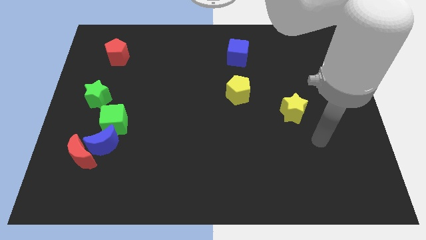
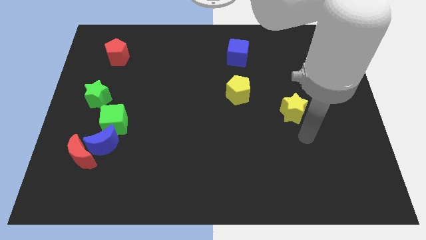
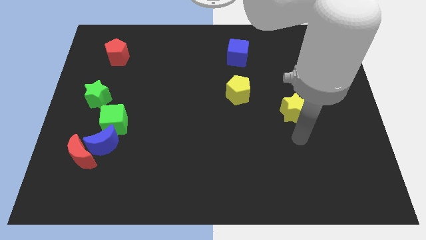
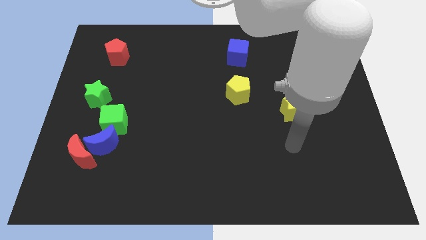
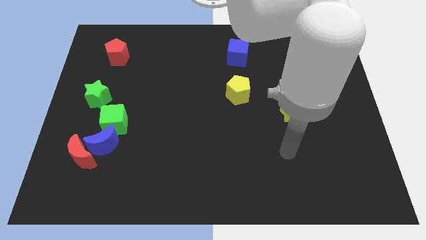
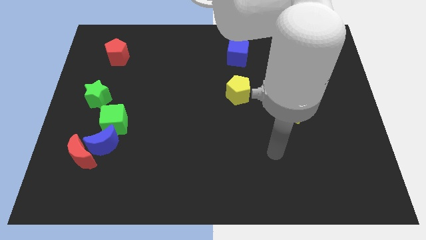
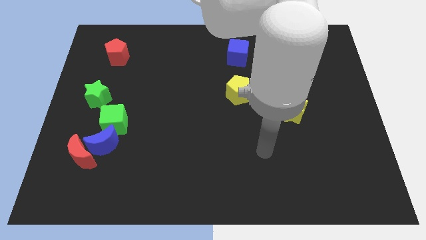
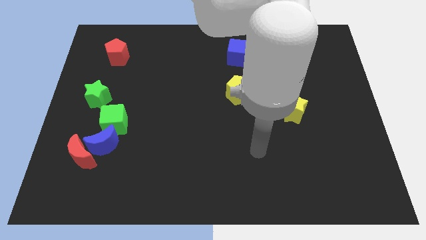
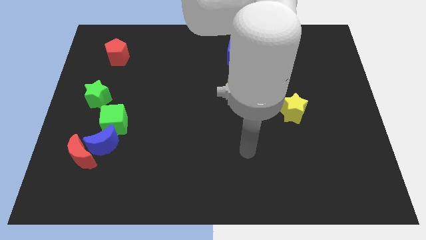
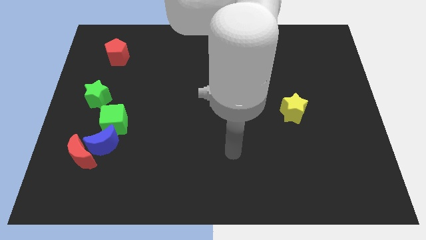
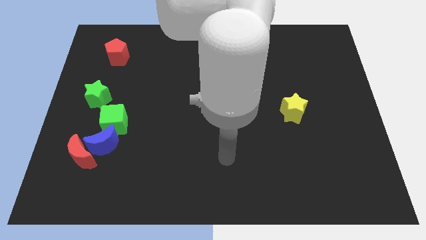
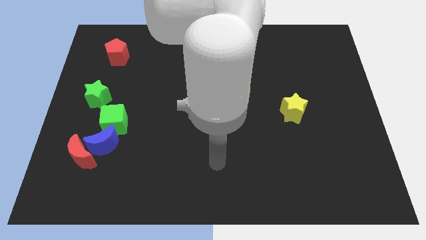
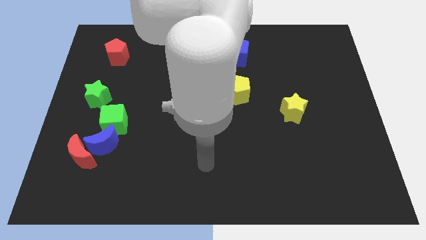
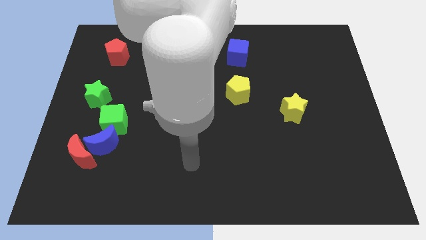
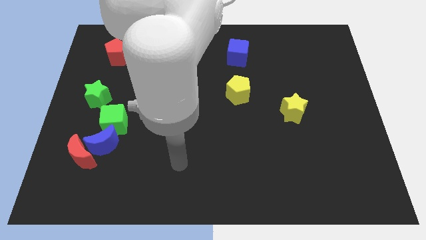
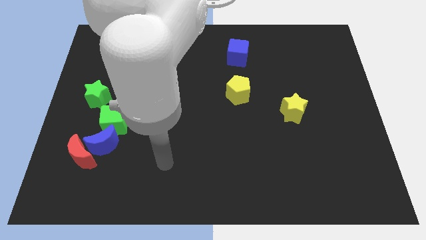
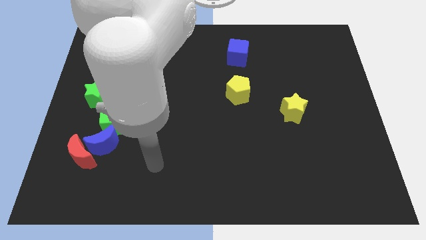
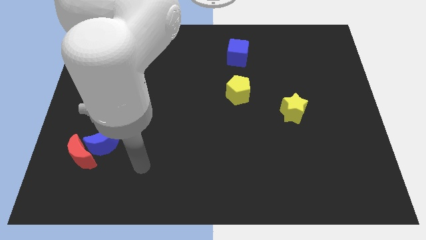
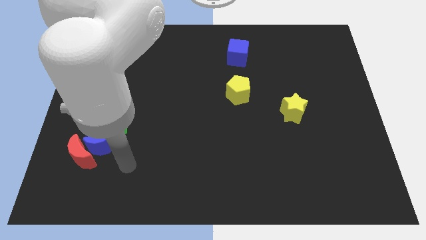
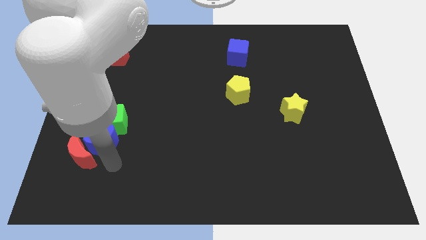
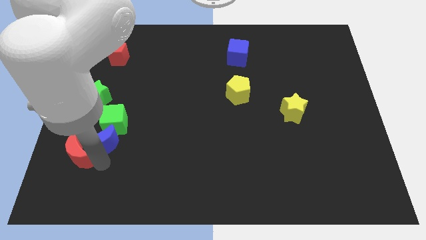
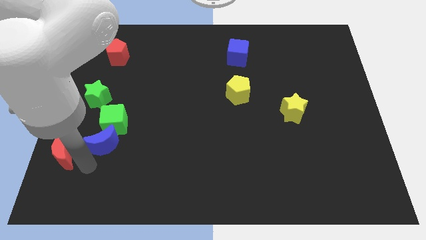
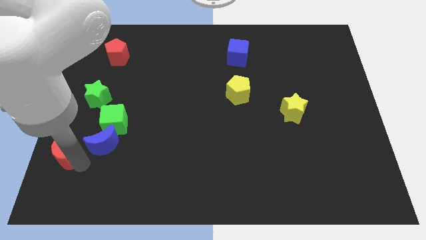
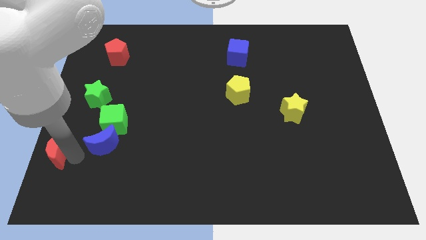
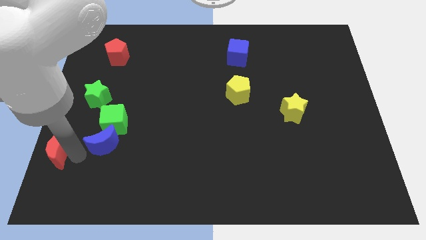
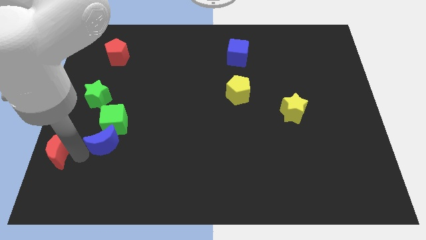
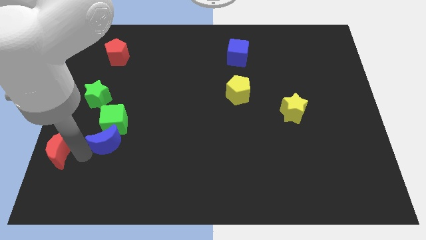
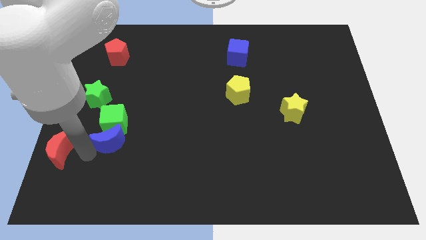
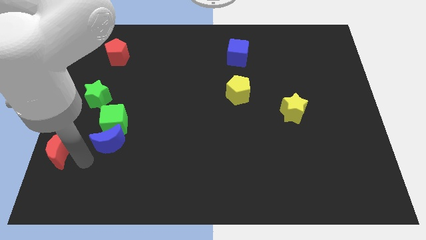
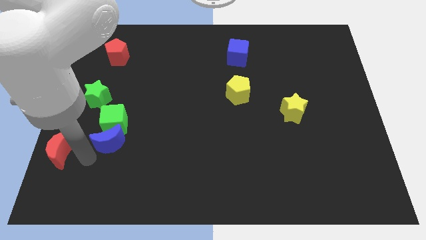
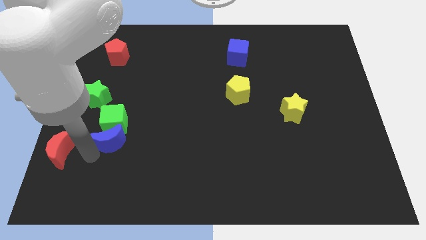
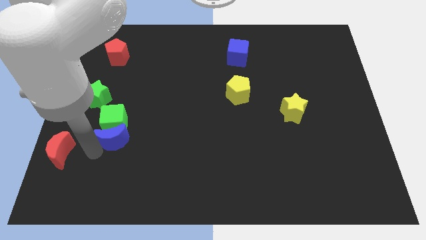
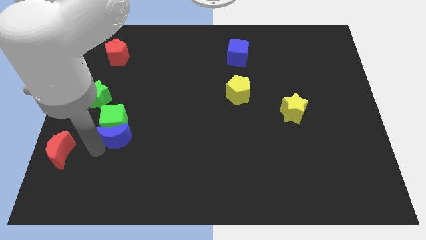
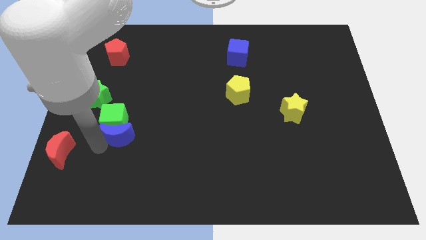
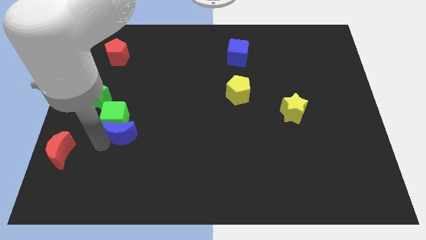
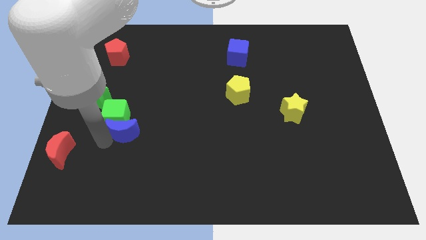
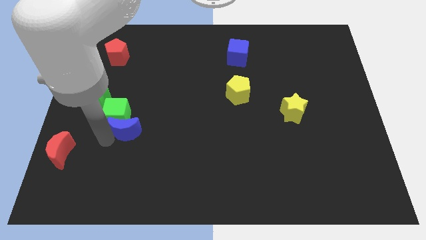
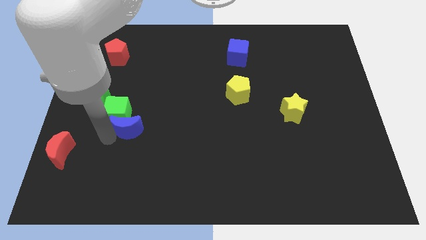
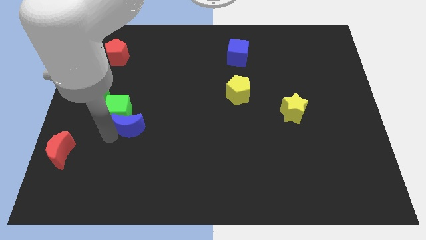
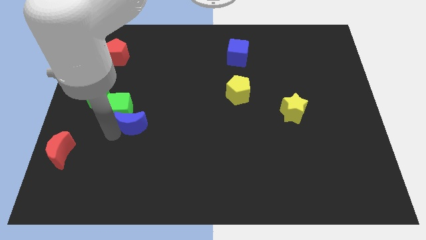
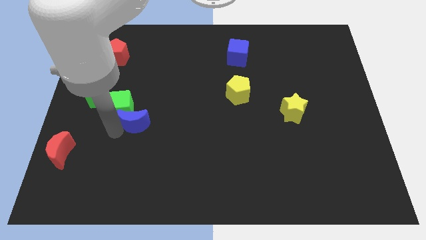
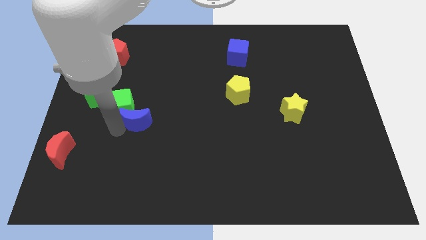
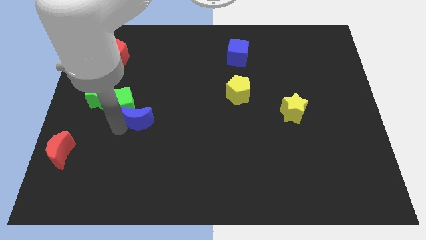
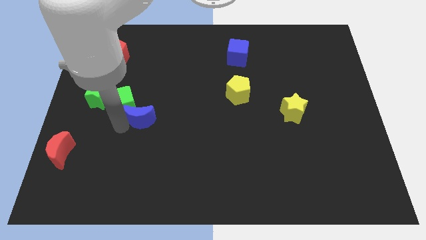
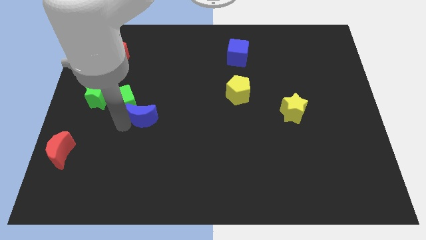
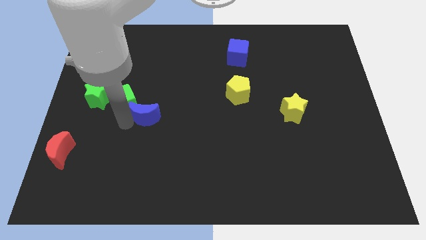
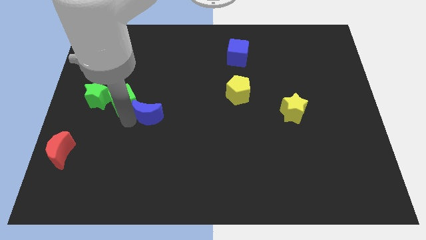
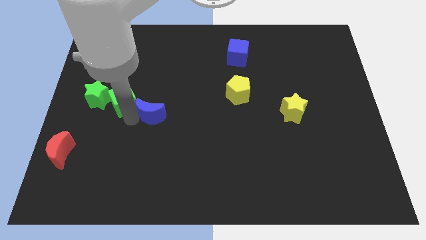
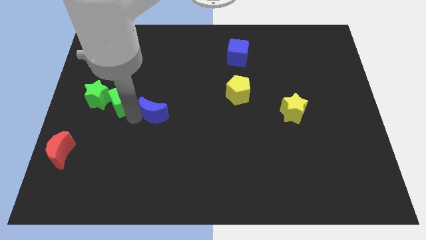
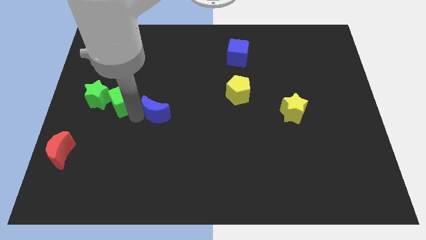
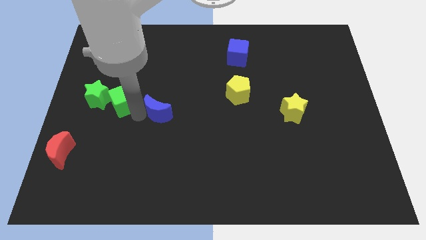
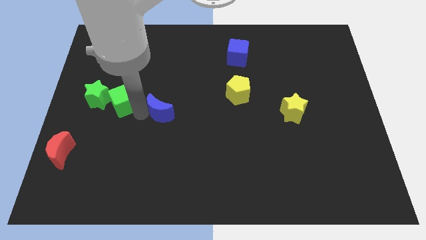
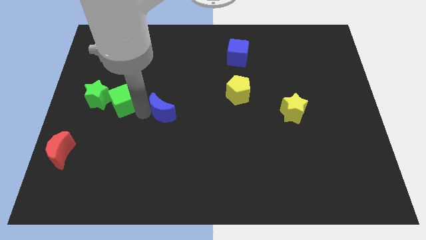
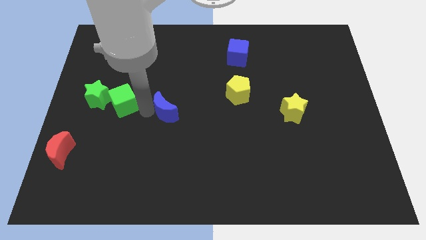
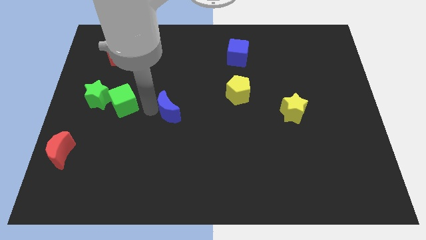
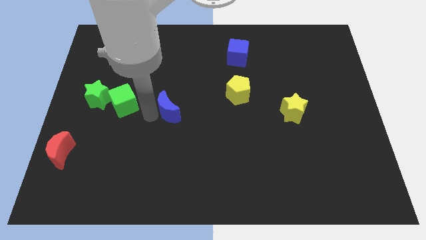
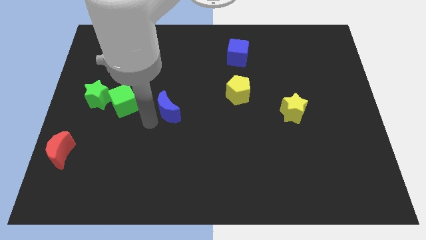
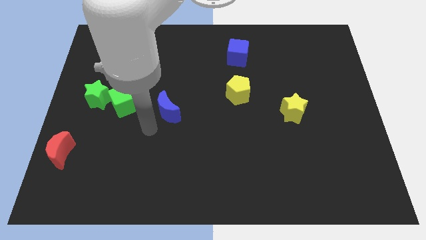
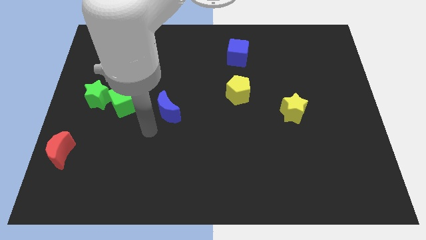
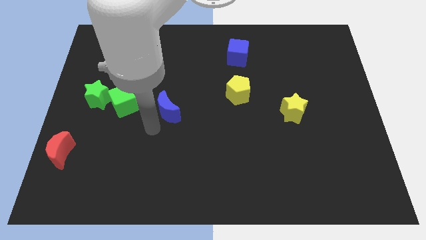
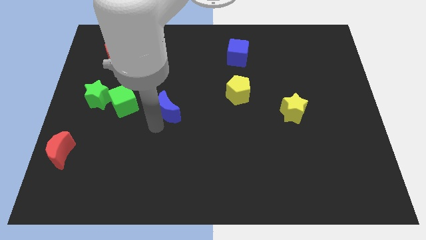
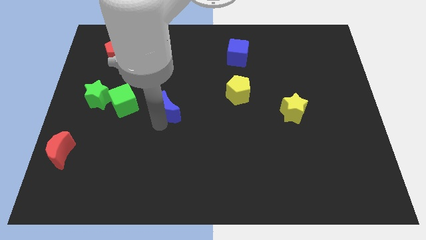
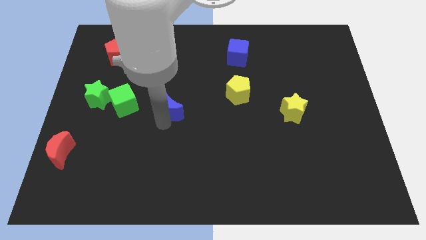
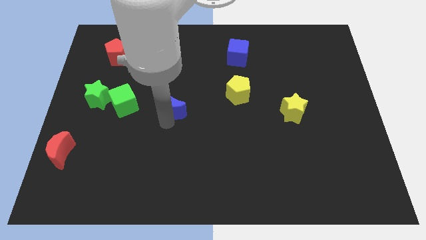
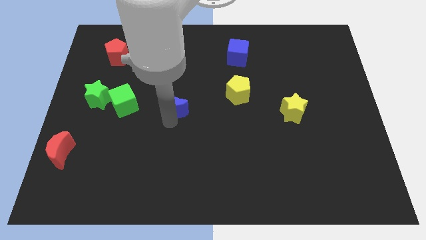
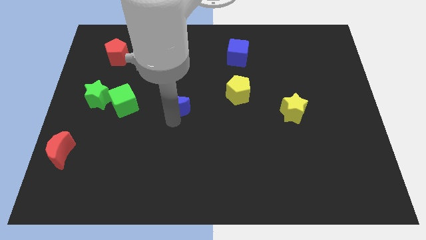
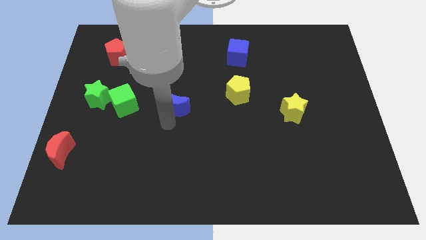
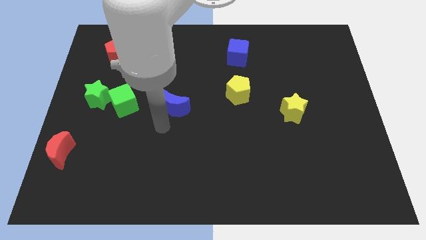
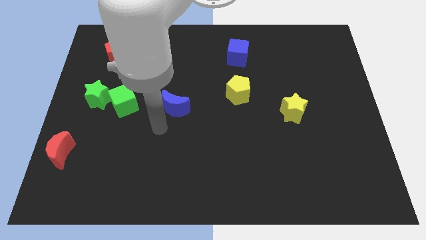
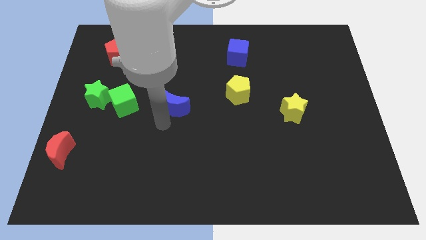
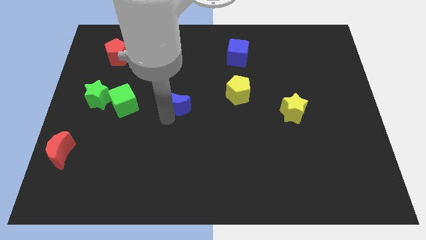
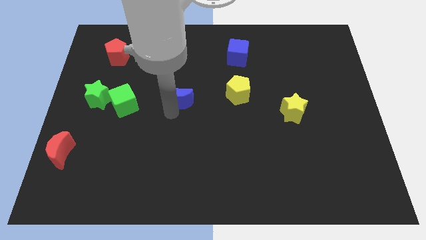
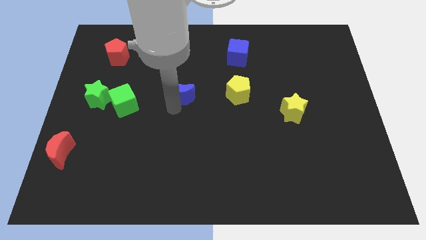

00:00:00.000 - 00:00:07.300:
move the blue moon upwards and right

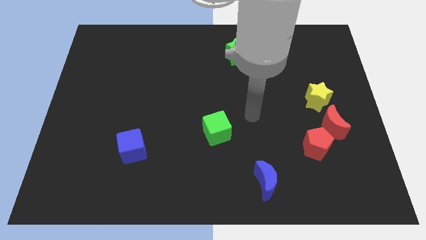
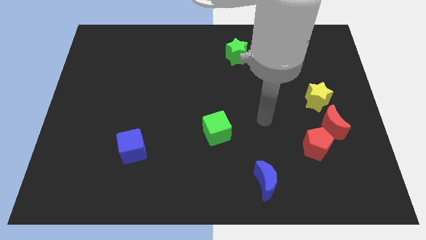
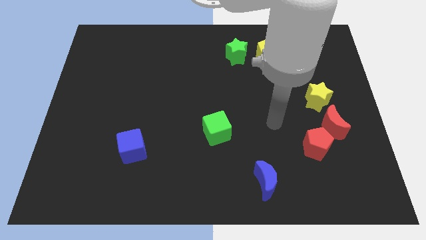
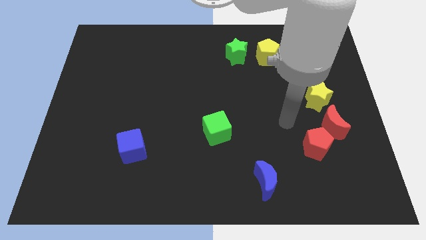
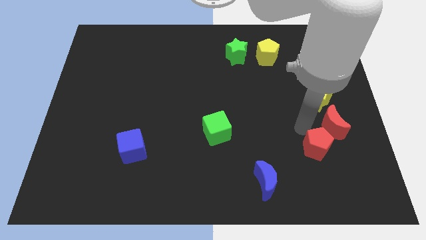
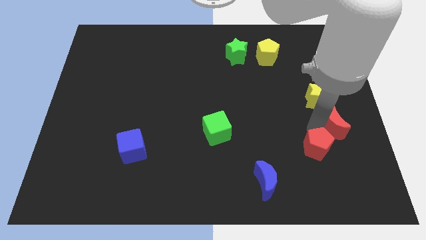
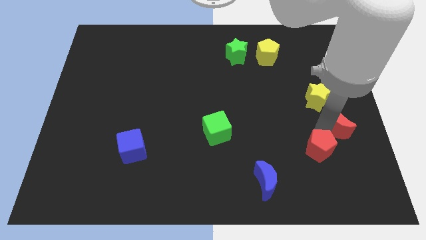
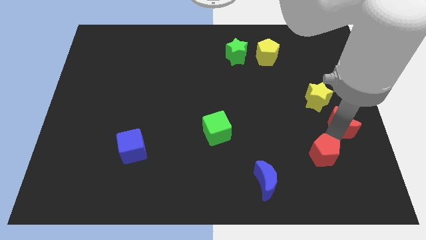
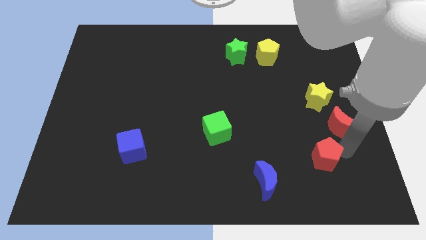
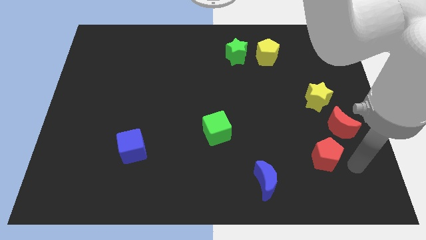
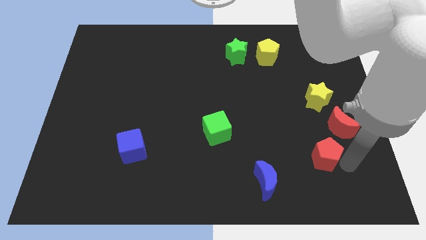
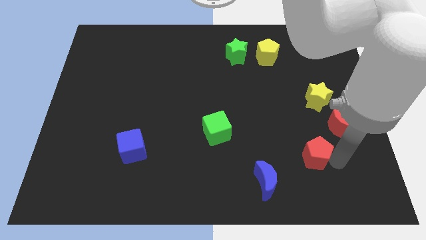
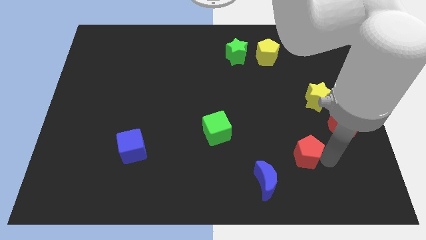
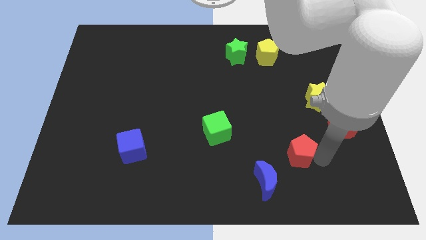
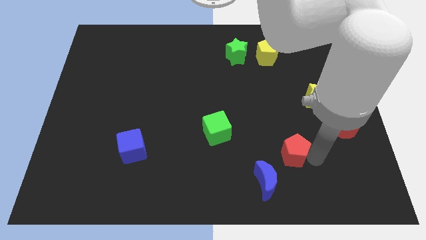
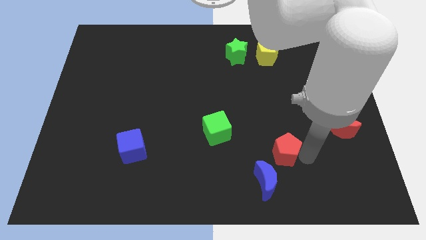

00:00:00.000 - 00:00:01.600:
slightly move the red pentagon to the left
